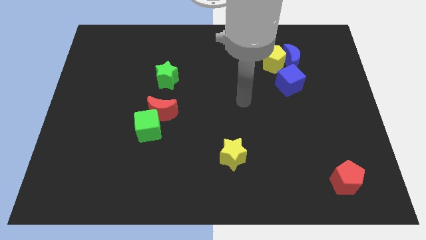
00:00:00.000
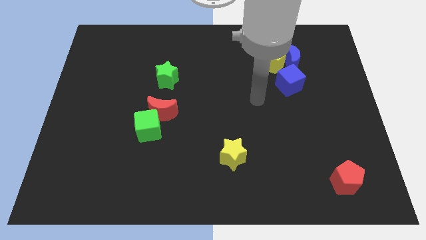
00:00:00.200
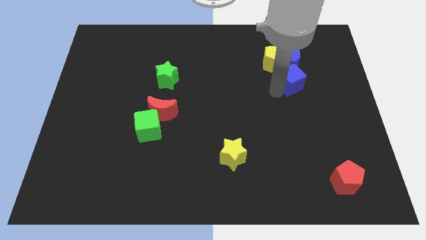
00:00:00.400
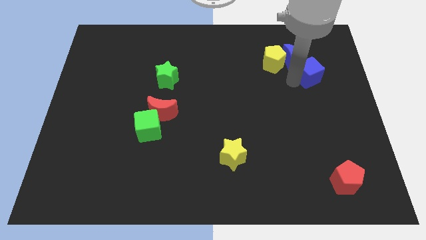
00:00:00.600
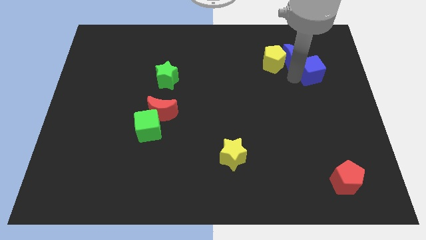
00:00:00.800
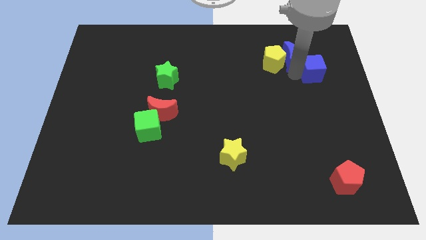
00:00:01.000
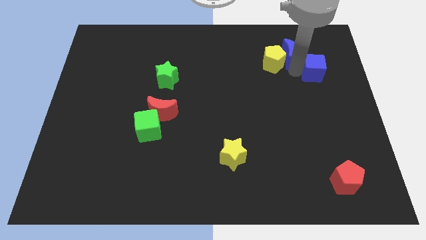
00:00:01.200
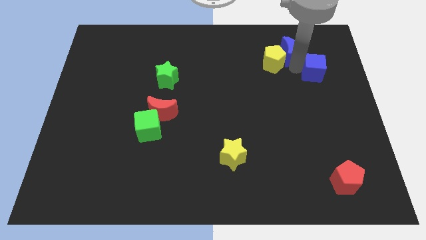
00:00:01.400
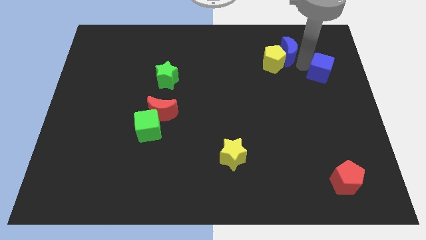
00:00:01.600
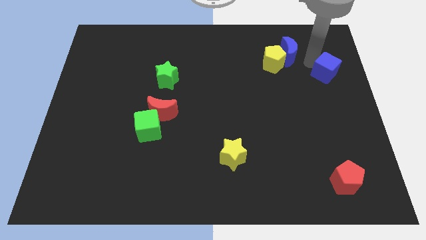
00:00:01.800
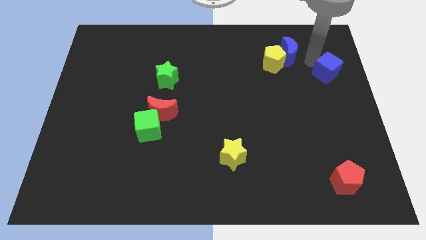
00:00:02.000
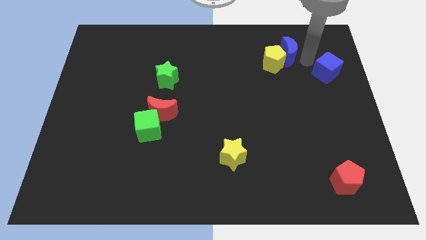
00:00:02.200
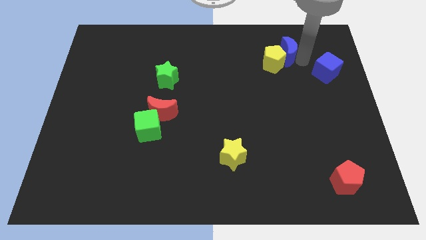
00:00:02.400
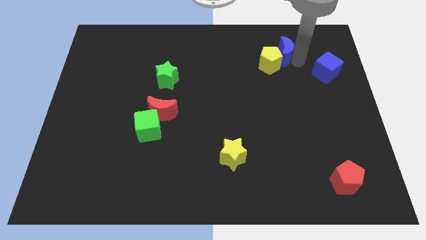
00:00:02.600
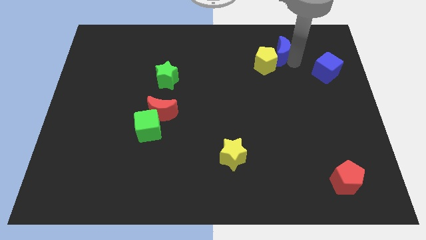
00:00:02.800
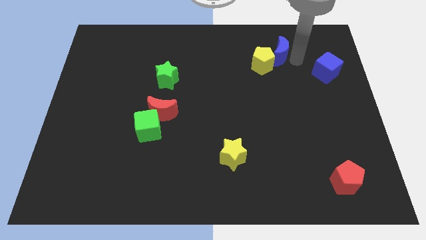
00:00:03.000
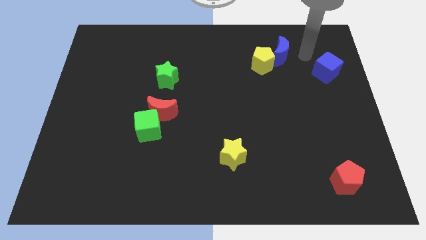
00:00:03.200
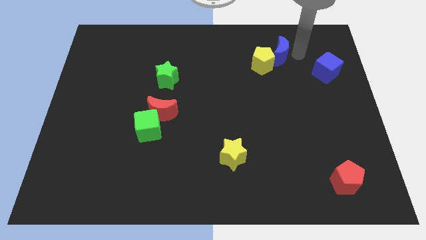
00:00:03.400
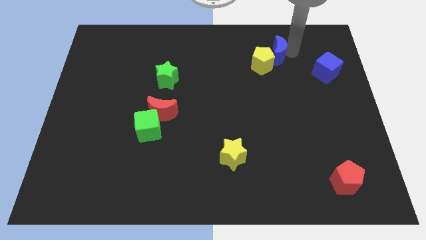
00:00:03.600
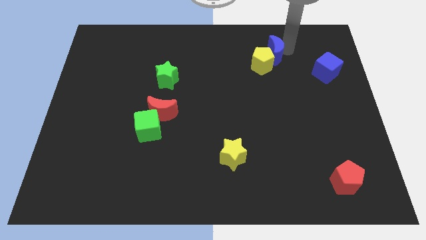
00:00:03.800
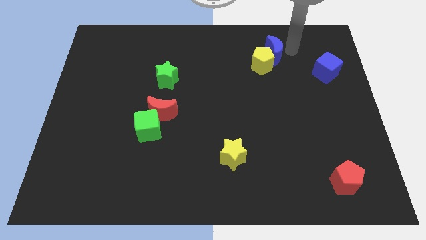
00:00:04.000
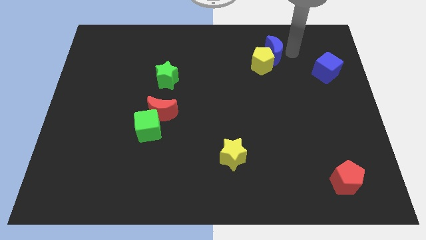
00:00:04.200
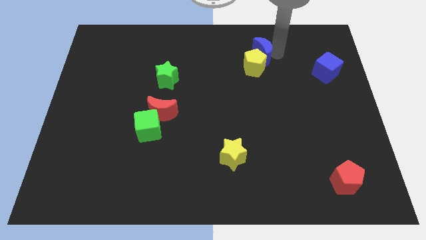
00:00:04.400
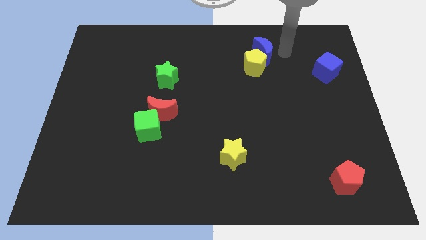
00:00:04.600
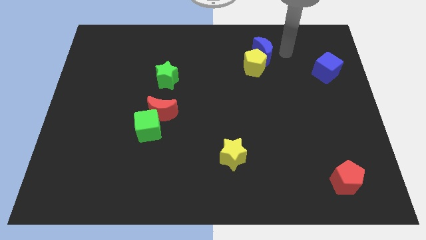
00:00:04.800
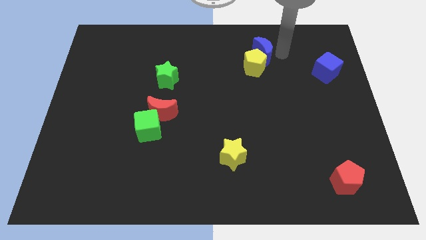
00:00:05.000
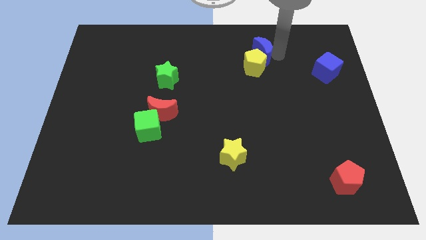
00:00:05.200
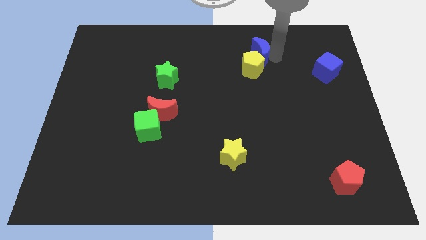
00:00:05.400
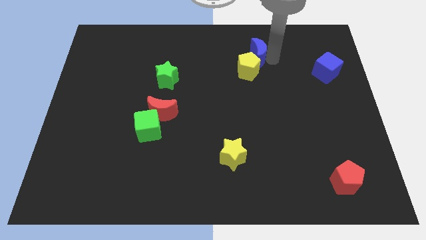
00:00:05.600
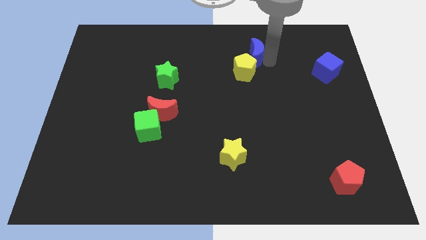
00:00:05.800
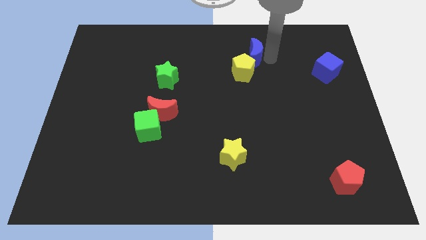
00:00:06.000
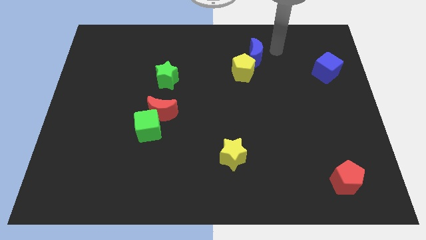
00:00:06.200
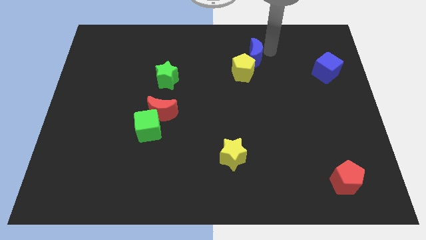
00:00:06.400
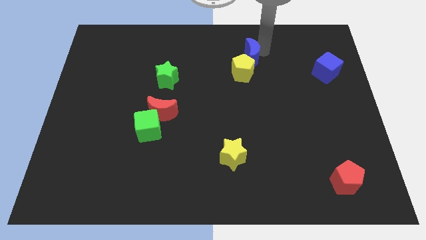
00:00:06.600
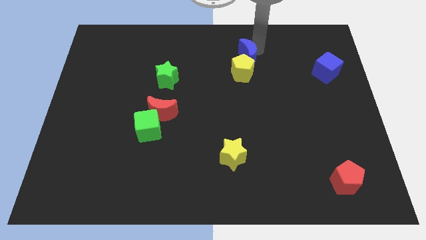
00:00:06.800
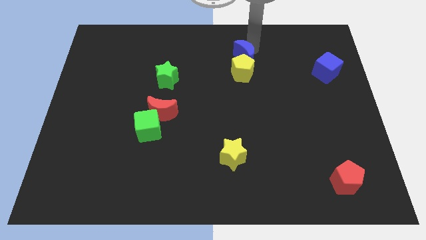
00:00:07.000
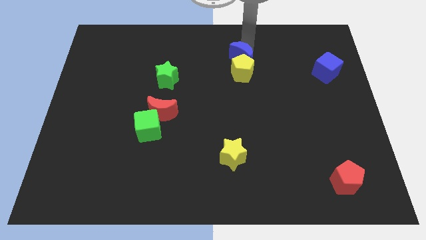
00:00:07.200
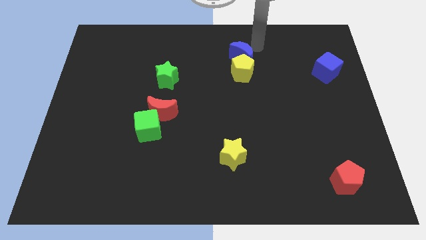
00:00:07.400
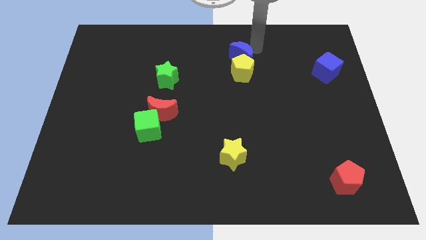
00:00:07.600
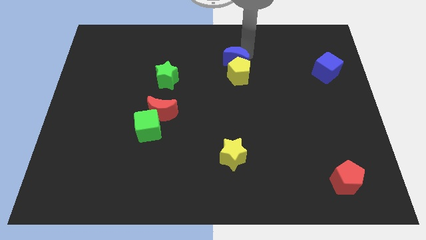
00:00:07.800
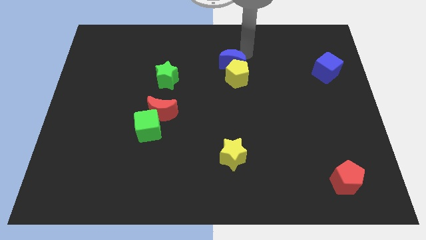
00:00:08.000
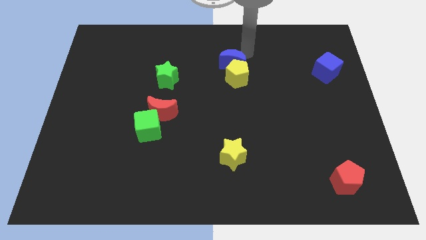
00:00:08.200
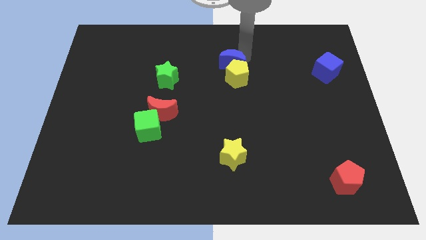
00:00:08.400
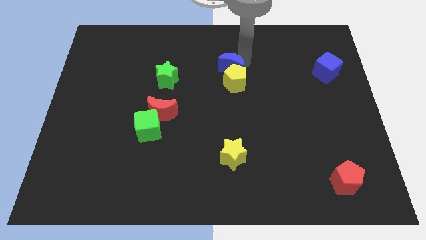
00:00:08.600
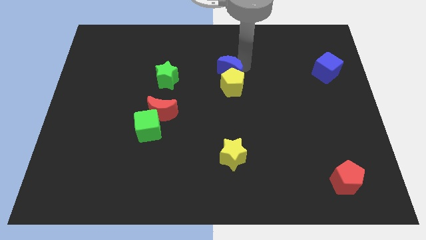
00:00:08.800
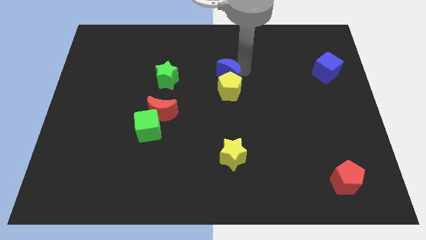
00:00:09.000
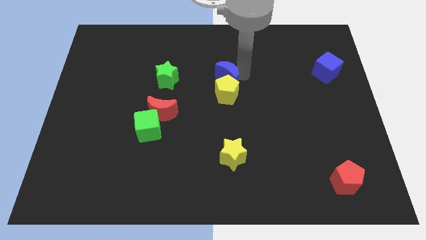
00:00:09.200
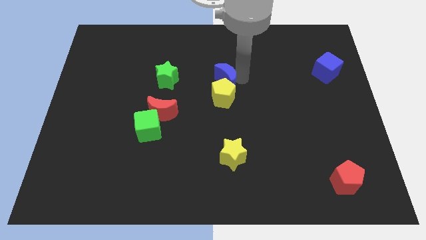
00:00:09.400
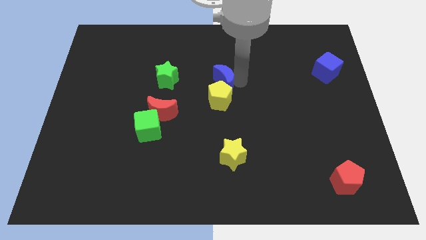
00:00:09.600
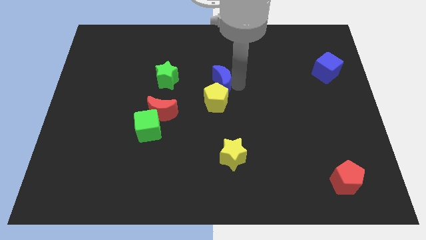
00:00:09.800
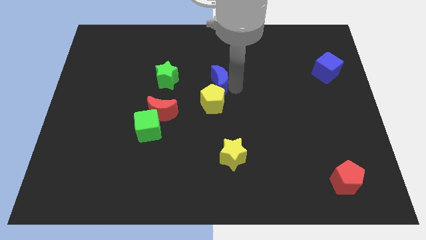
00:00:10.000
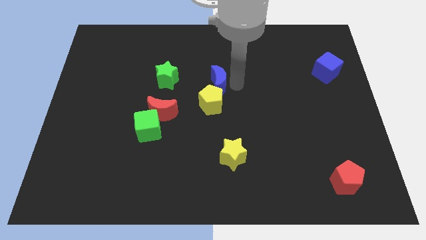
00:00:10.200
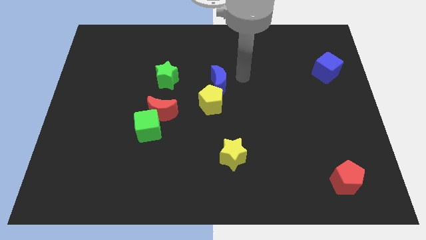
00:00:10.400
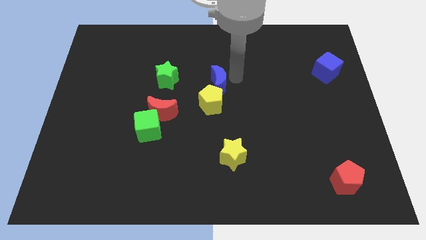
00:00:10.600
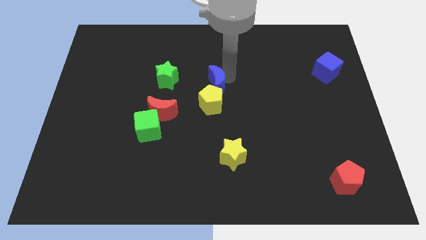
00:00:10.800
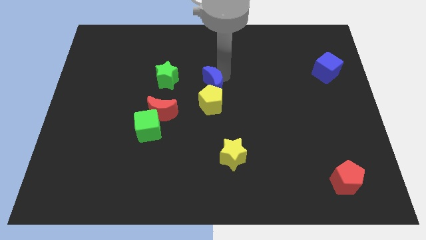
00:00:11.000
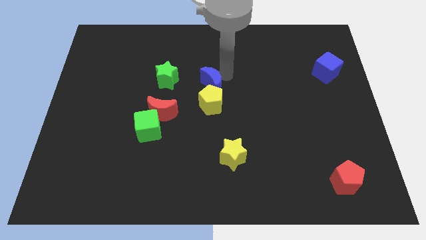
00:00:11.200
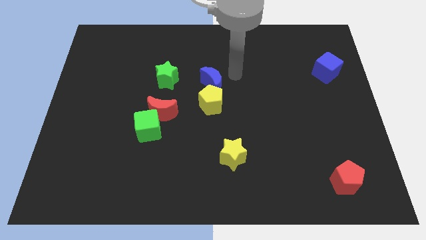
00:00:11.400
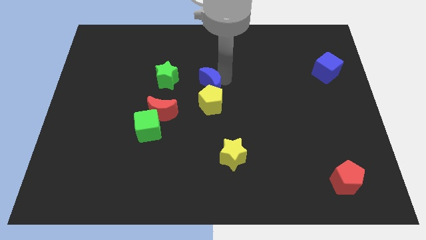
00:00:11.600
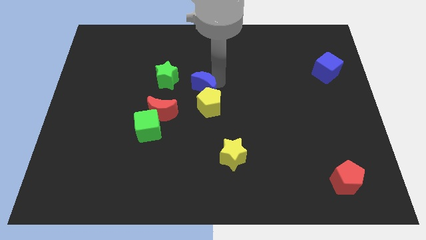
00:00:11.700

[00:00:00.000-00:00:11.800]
move the blue moon to the bottom right side of the green star

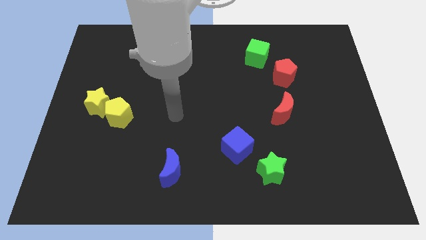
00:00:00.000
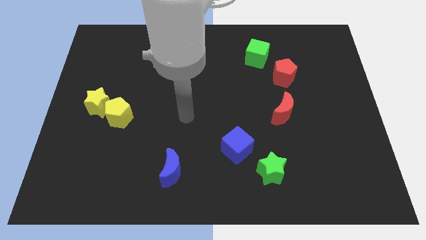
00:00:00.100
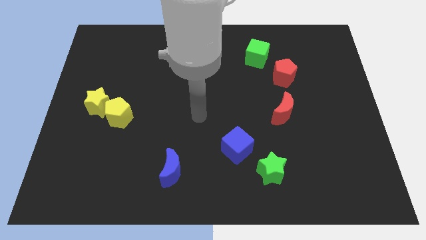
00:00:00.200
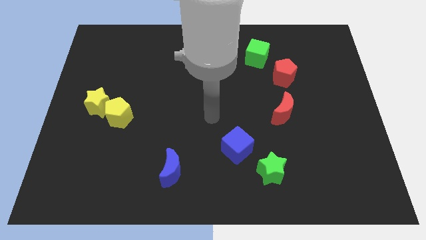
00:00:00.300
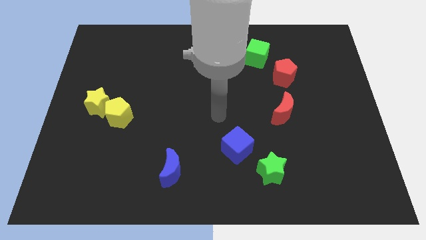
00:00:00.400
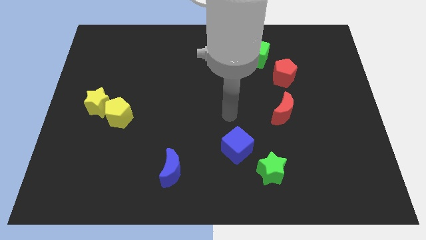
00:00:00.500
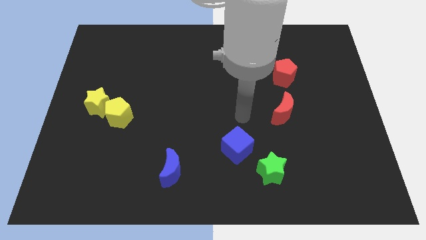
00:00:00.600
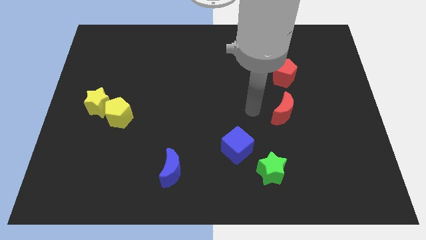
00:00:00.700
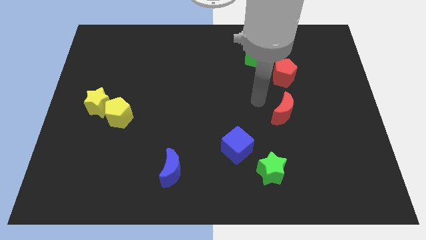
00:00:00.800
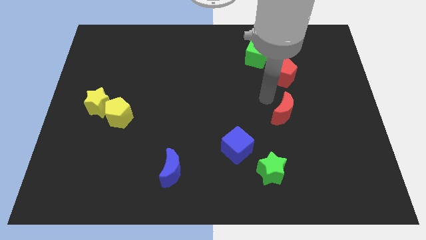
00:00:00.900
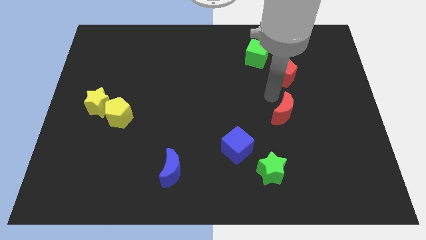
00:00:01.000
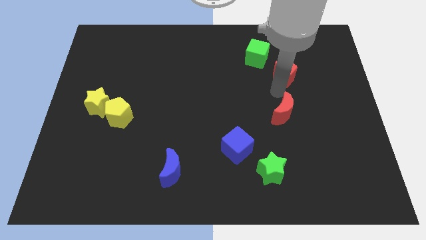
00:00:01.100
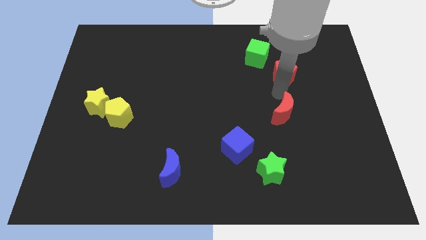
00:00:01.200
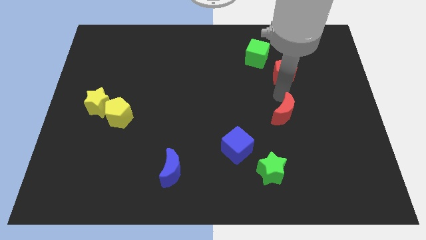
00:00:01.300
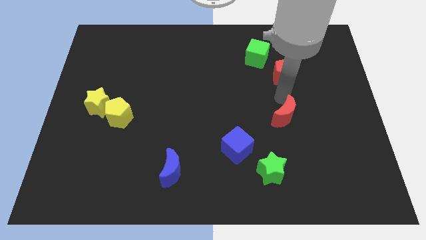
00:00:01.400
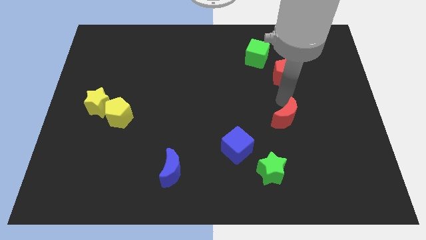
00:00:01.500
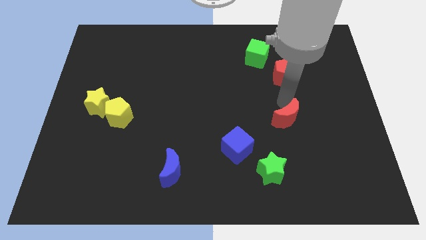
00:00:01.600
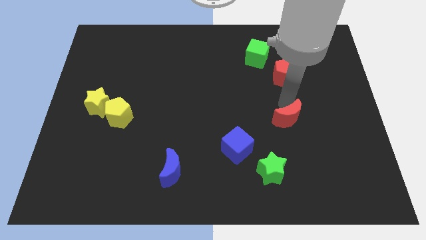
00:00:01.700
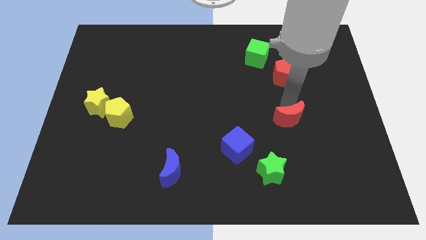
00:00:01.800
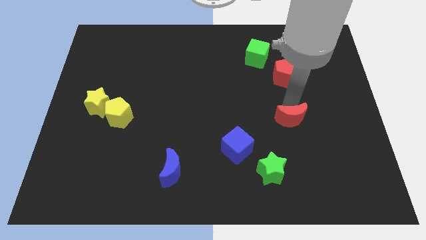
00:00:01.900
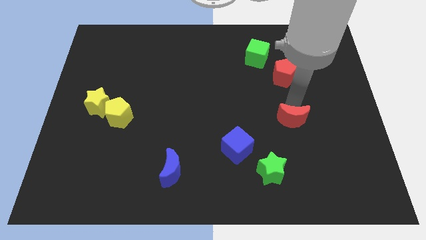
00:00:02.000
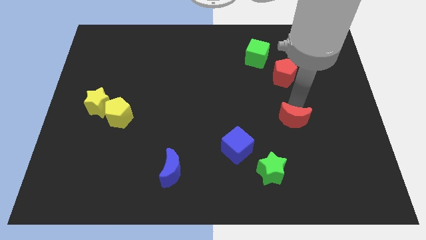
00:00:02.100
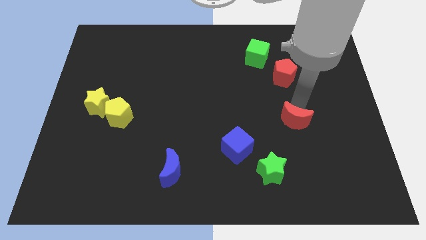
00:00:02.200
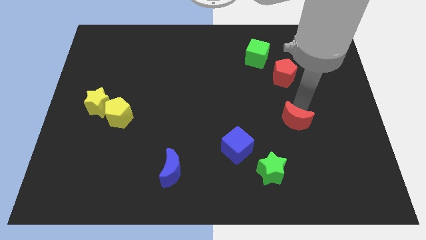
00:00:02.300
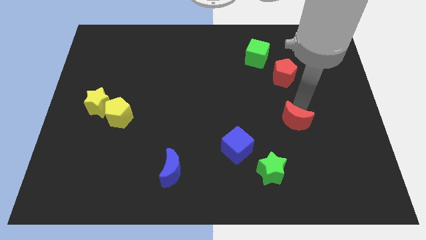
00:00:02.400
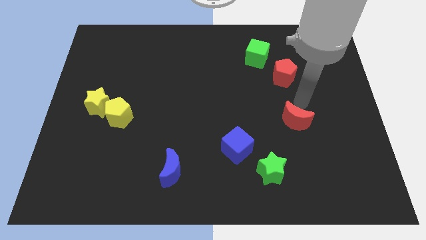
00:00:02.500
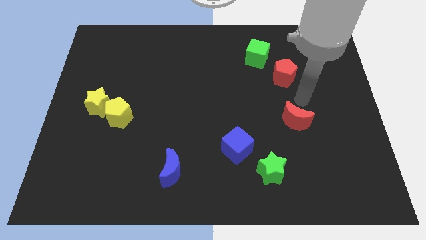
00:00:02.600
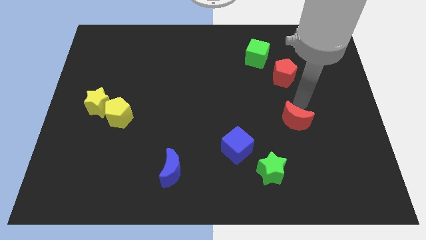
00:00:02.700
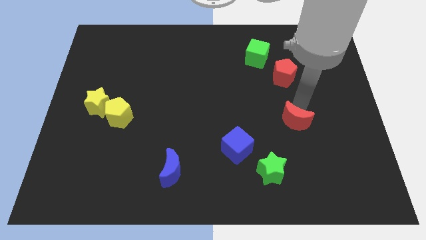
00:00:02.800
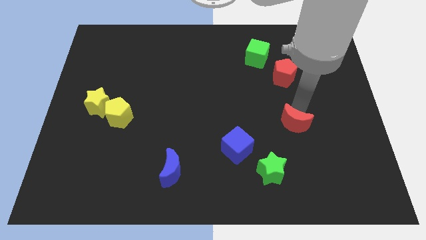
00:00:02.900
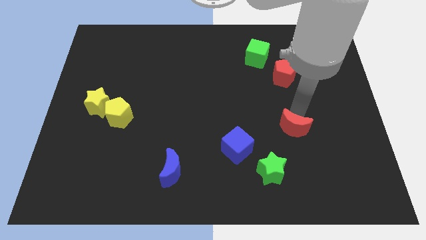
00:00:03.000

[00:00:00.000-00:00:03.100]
push the red moon to the top right side of the green star
